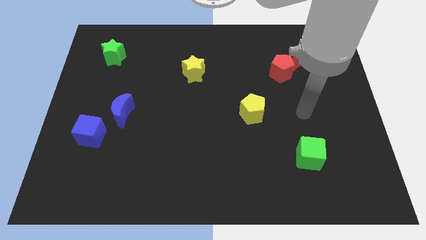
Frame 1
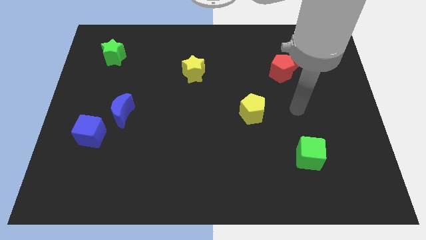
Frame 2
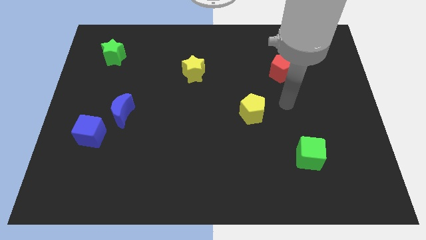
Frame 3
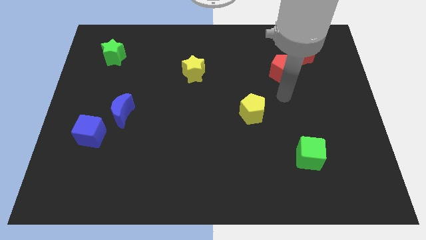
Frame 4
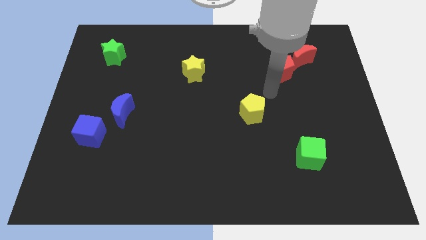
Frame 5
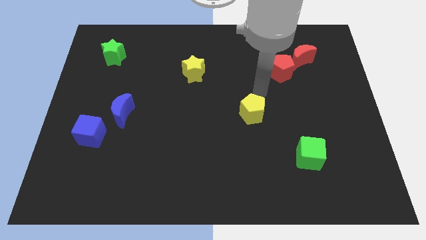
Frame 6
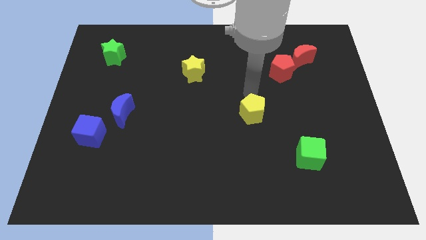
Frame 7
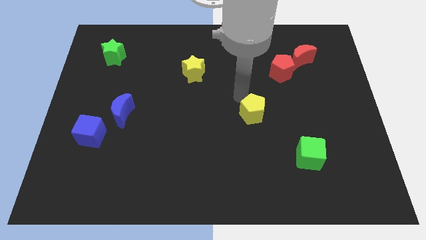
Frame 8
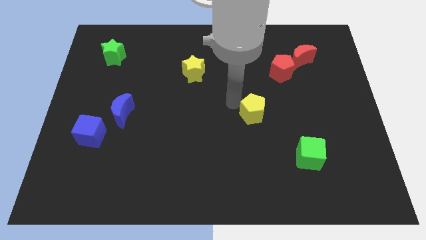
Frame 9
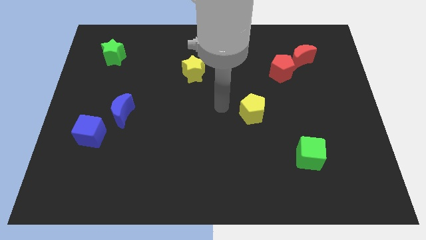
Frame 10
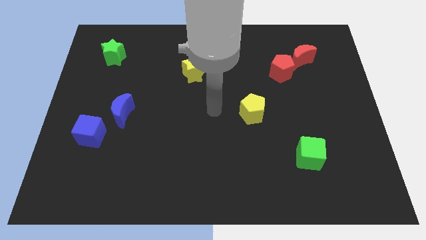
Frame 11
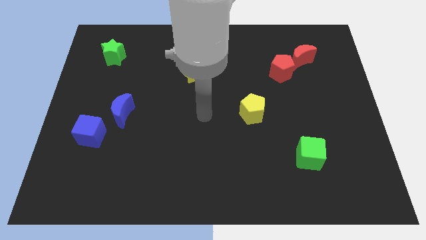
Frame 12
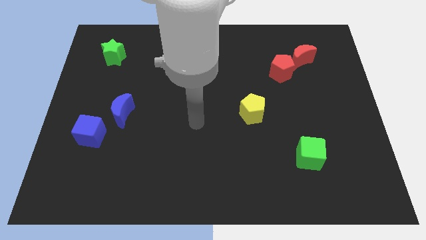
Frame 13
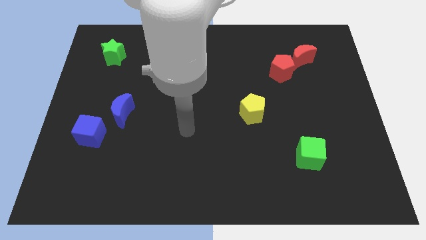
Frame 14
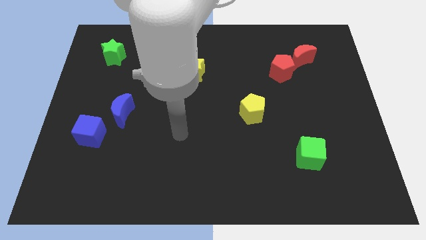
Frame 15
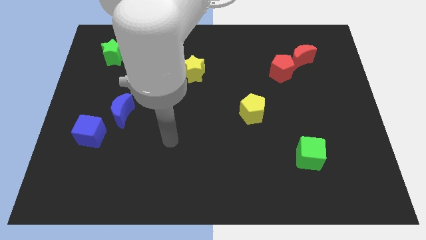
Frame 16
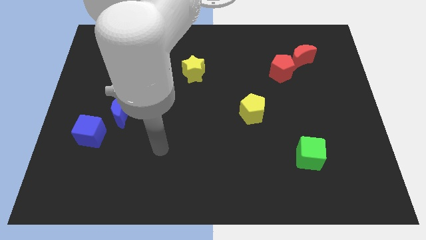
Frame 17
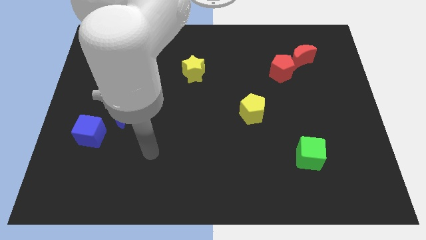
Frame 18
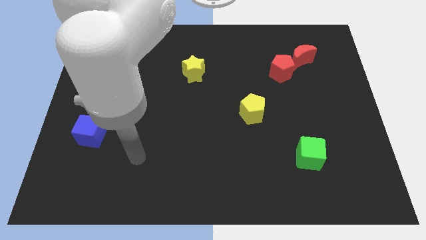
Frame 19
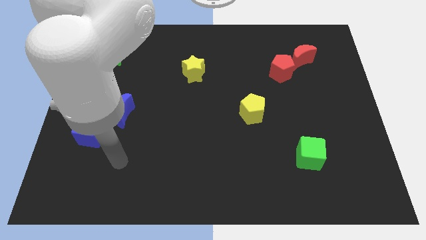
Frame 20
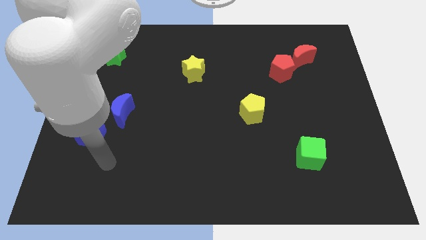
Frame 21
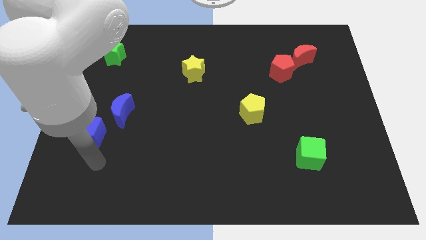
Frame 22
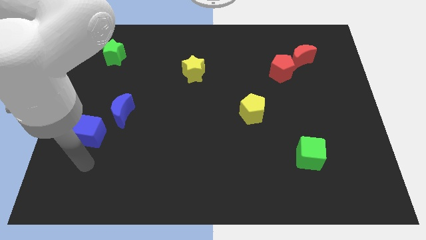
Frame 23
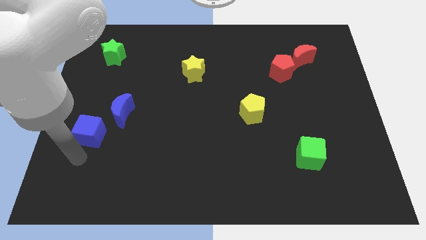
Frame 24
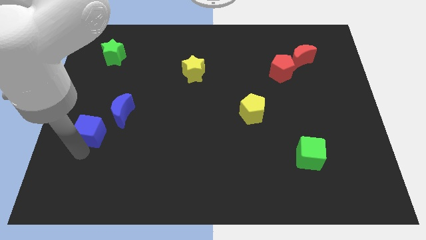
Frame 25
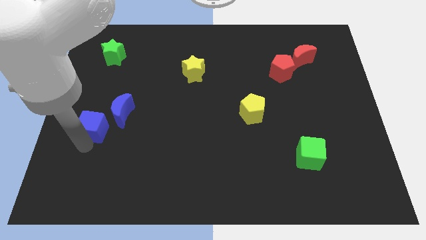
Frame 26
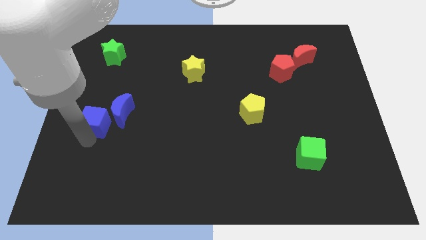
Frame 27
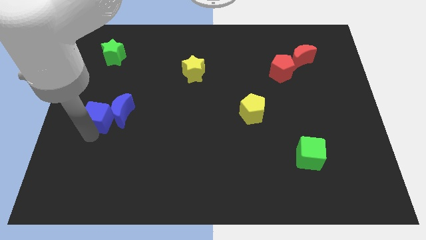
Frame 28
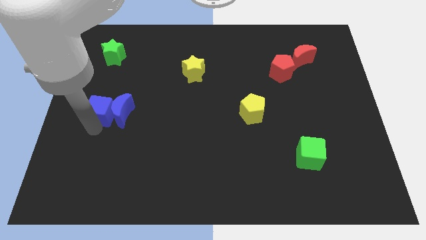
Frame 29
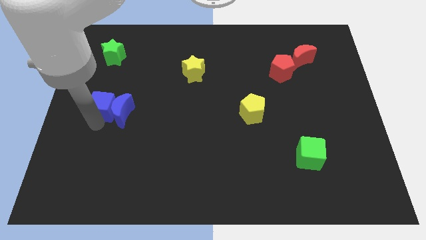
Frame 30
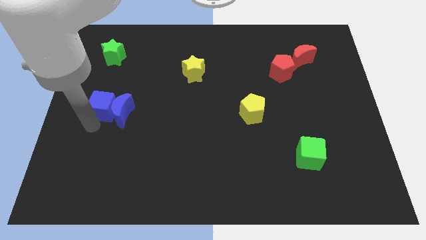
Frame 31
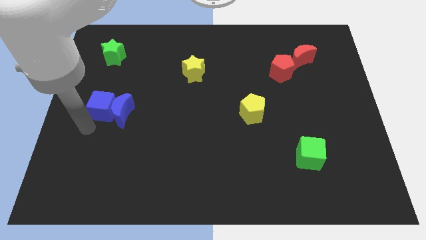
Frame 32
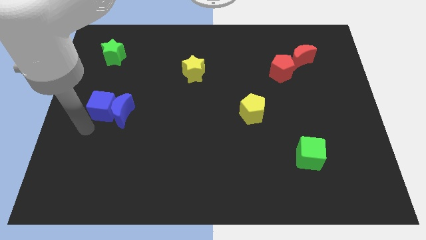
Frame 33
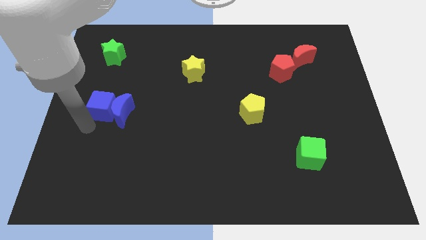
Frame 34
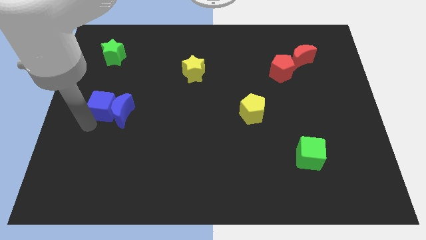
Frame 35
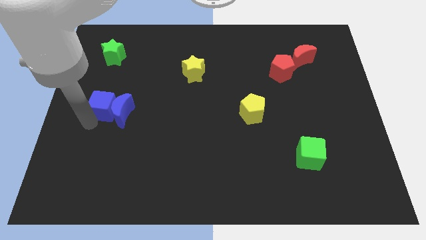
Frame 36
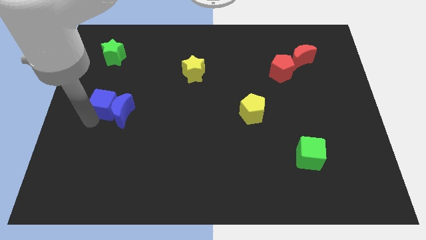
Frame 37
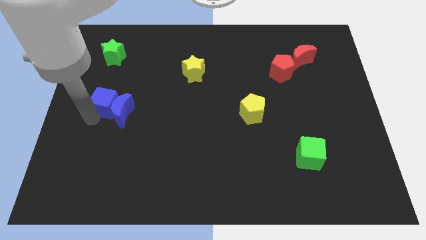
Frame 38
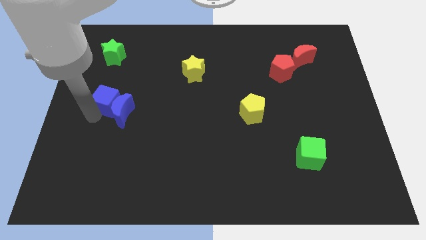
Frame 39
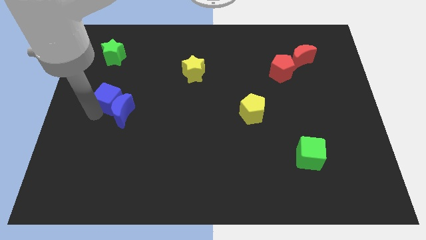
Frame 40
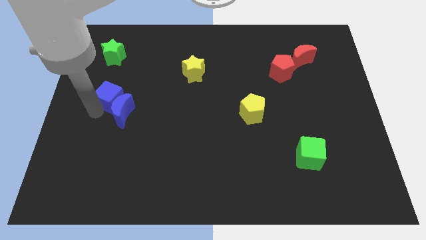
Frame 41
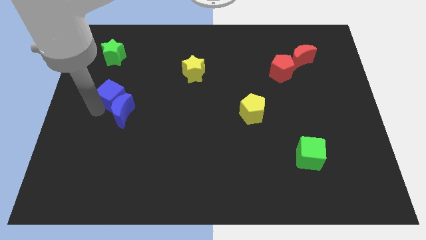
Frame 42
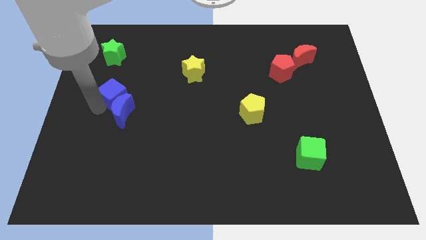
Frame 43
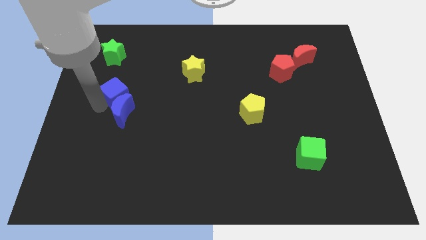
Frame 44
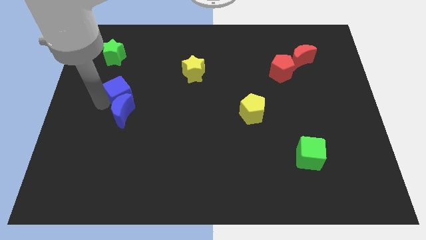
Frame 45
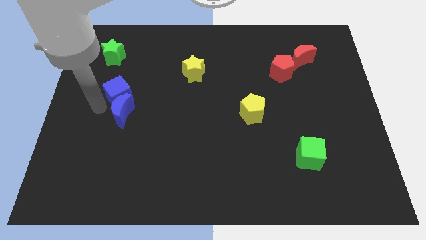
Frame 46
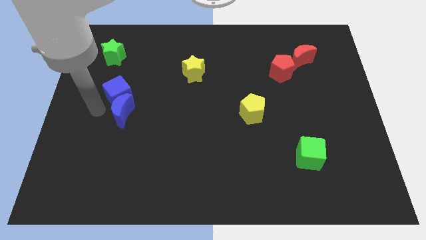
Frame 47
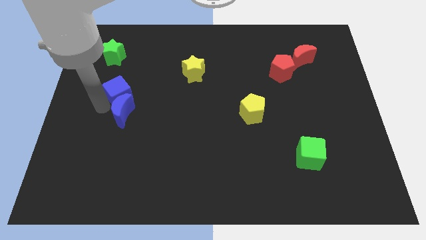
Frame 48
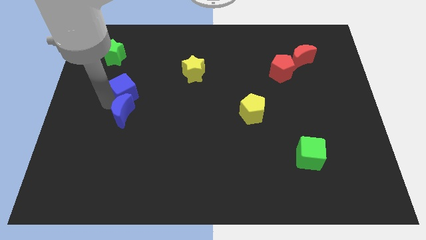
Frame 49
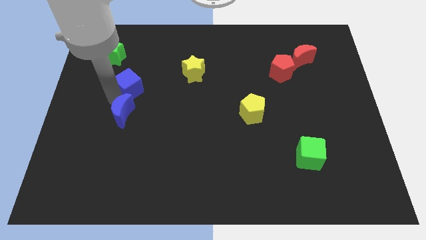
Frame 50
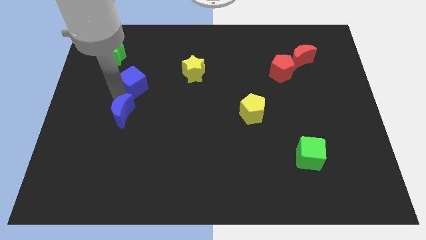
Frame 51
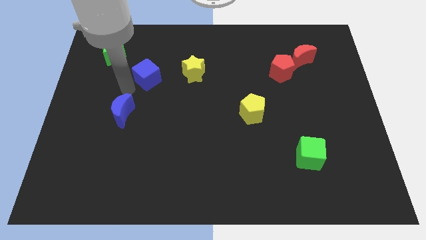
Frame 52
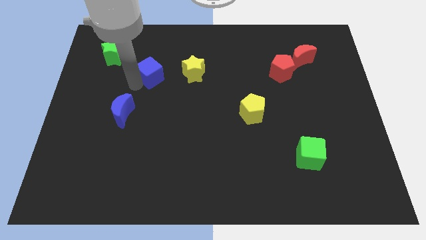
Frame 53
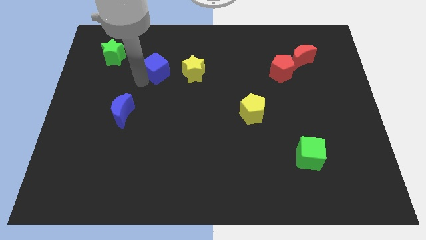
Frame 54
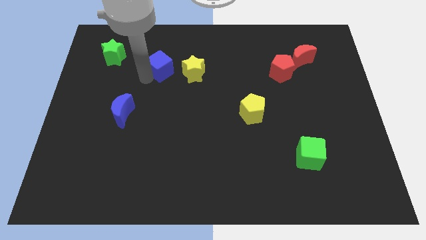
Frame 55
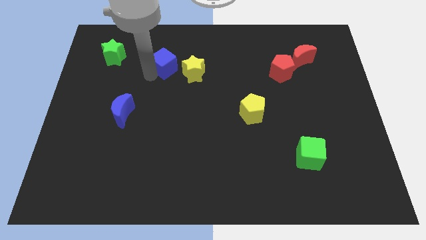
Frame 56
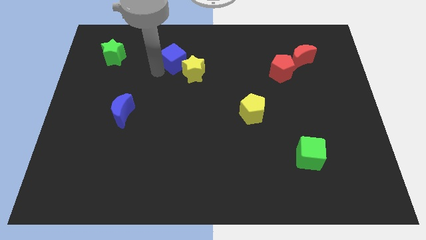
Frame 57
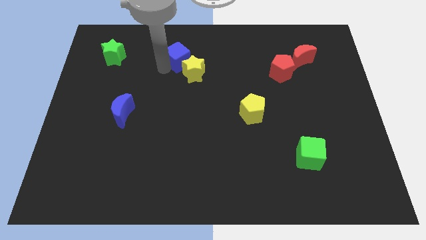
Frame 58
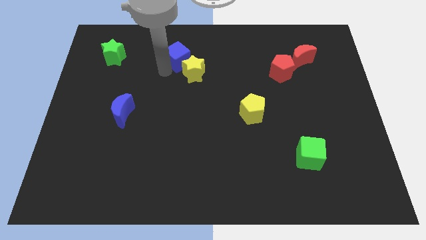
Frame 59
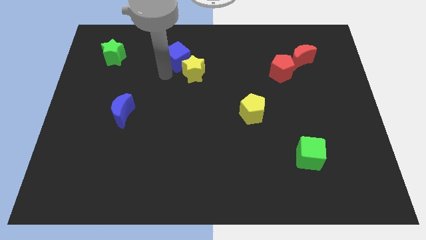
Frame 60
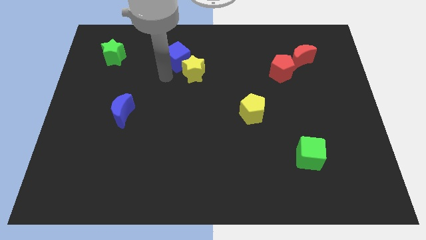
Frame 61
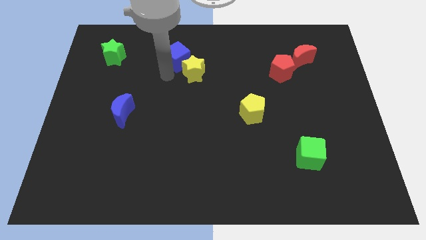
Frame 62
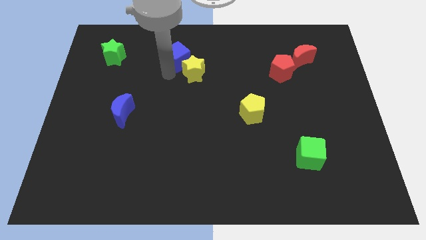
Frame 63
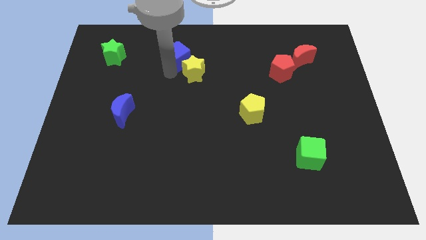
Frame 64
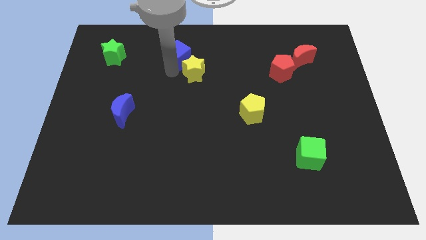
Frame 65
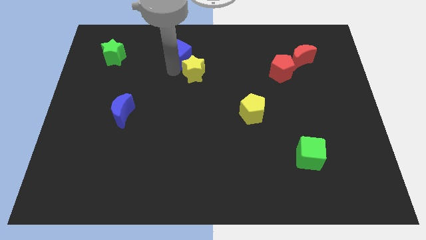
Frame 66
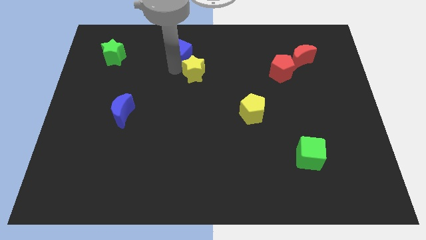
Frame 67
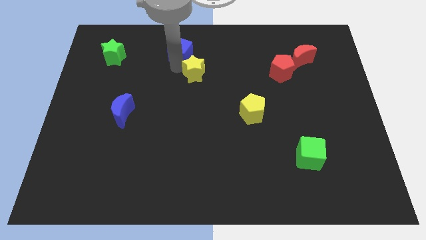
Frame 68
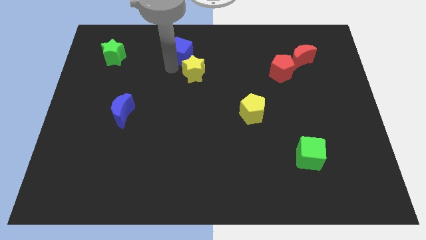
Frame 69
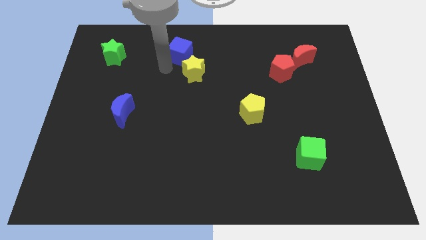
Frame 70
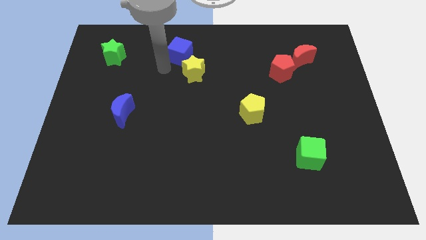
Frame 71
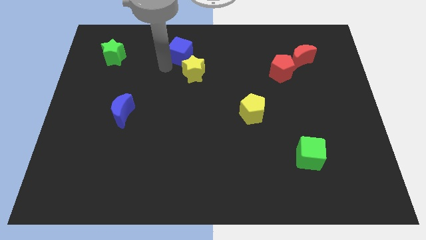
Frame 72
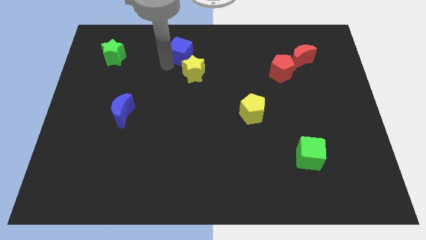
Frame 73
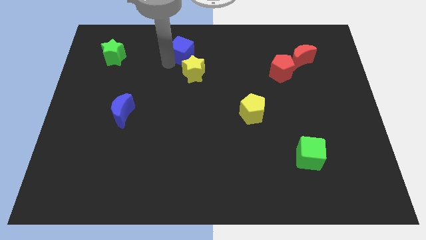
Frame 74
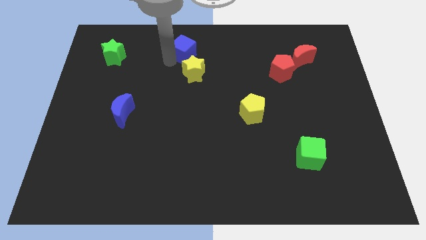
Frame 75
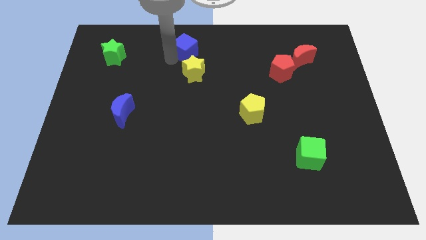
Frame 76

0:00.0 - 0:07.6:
slide the blue cube to the towards your base

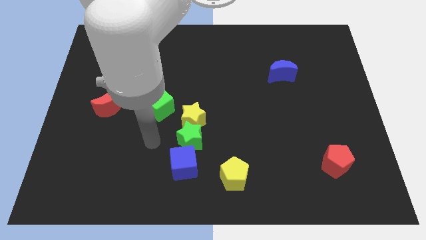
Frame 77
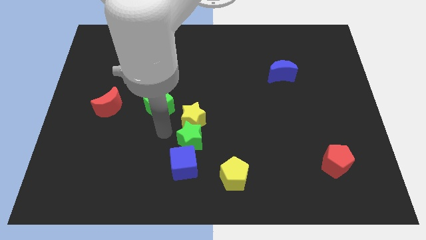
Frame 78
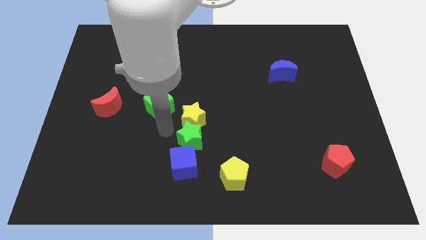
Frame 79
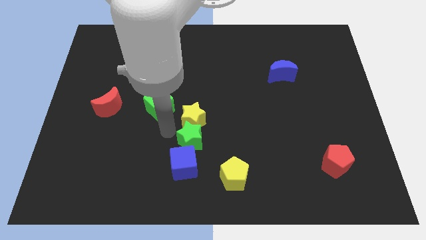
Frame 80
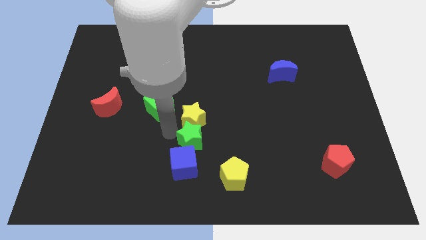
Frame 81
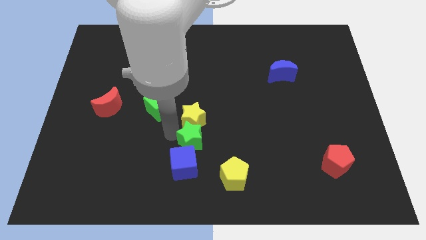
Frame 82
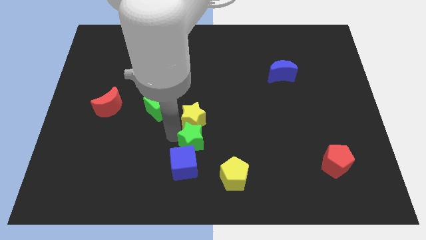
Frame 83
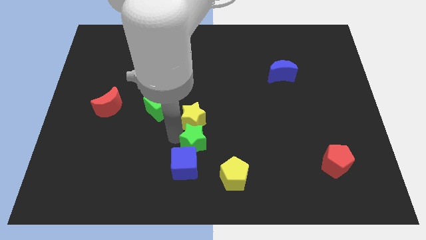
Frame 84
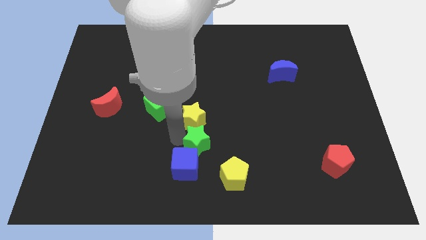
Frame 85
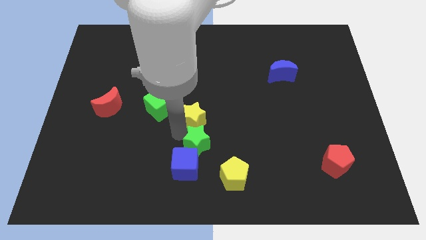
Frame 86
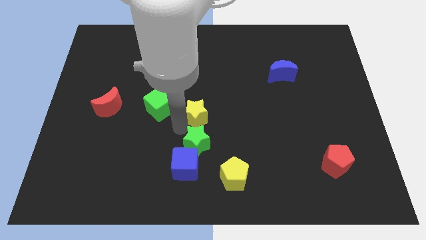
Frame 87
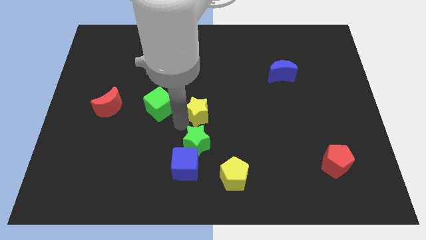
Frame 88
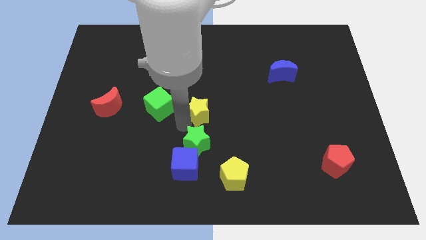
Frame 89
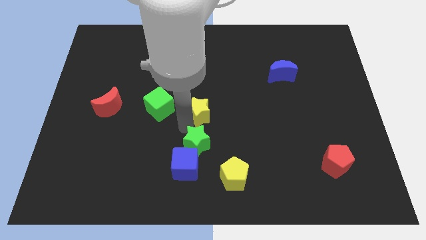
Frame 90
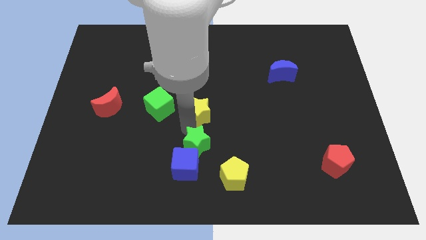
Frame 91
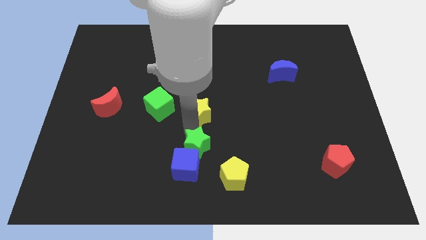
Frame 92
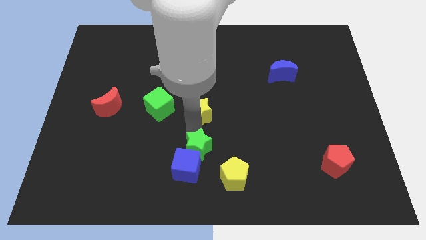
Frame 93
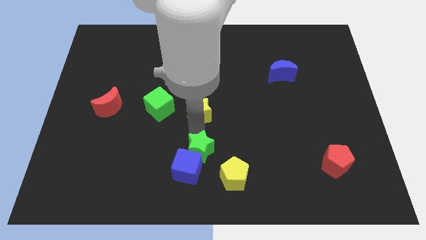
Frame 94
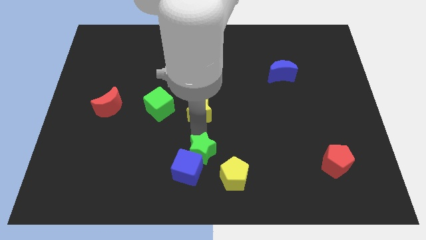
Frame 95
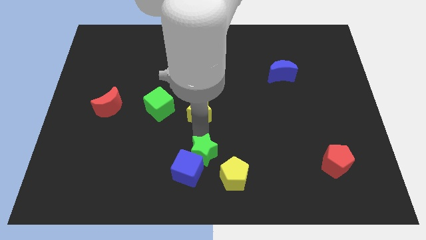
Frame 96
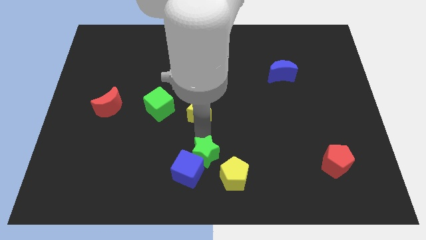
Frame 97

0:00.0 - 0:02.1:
push the green star to the bottom
